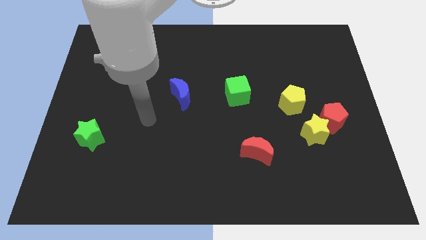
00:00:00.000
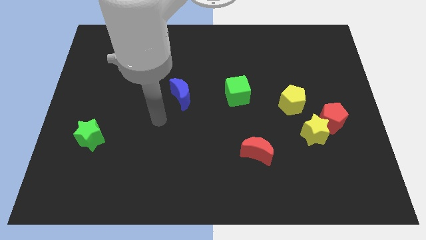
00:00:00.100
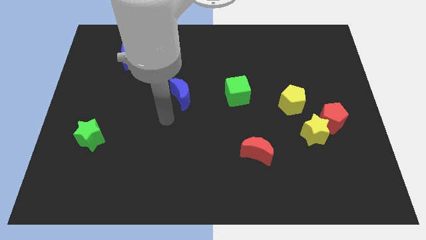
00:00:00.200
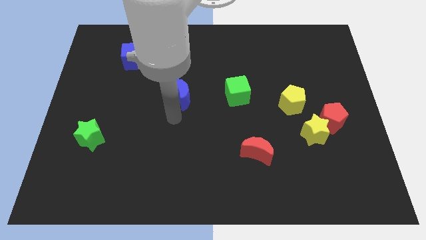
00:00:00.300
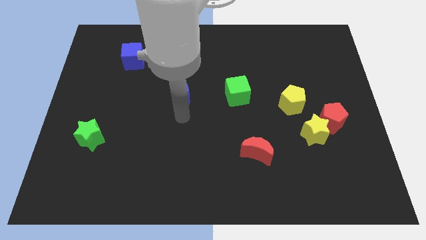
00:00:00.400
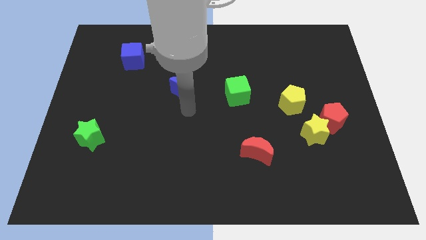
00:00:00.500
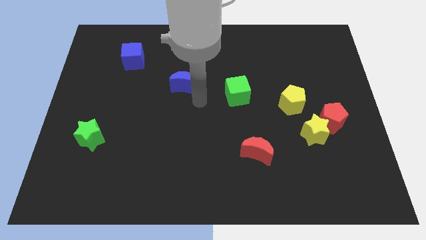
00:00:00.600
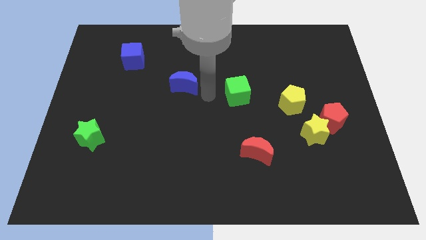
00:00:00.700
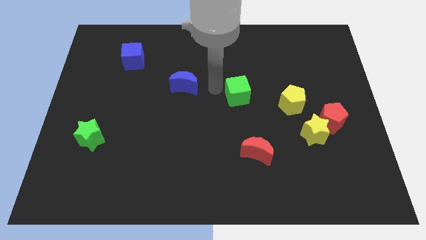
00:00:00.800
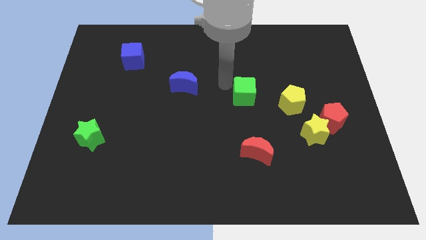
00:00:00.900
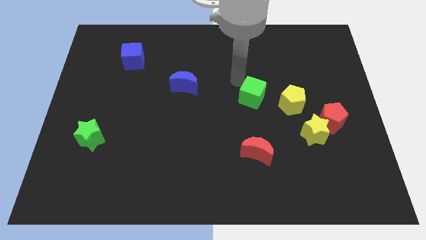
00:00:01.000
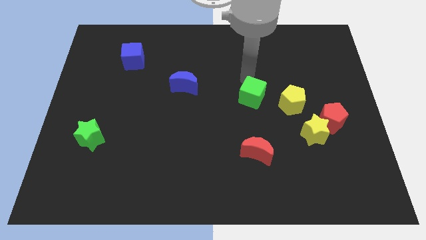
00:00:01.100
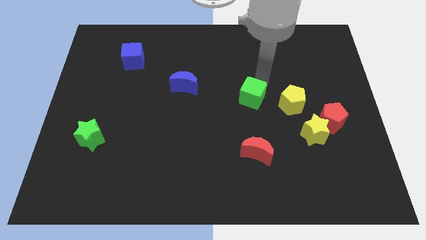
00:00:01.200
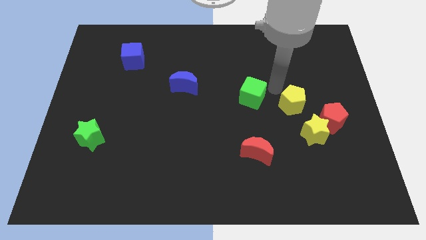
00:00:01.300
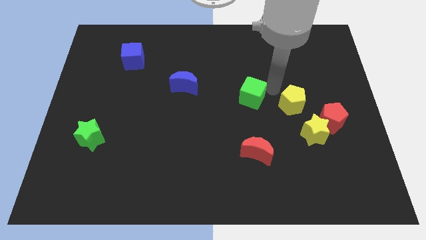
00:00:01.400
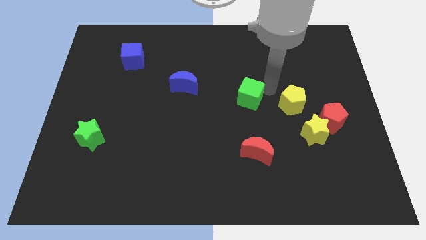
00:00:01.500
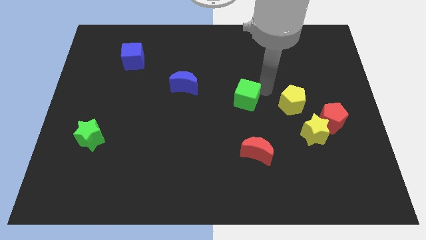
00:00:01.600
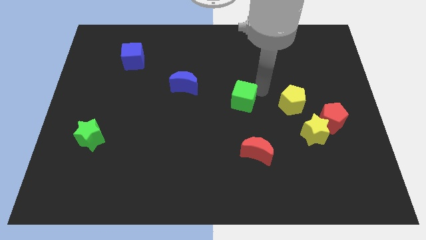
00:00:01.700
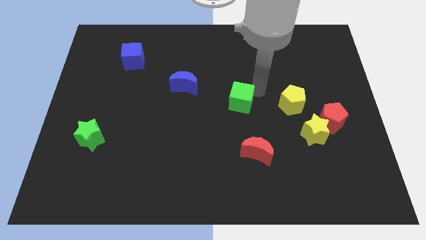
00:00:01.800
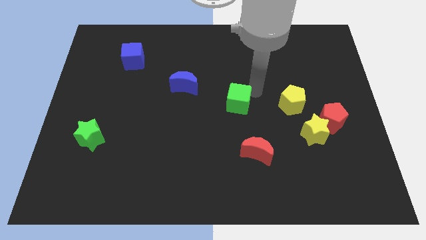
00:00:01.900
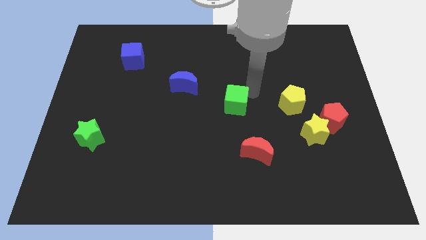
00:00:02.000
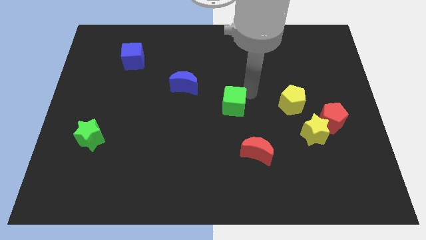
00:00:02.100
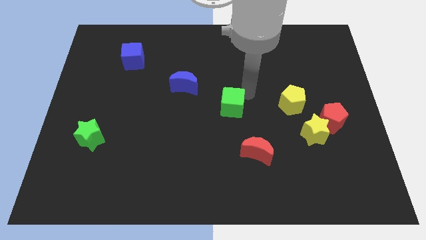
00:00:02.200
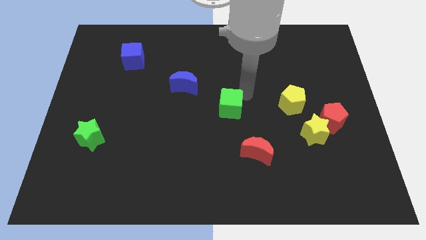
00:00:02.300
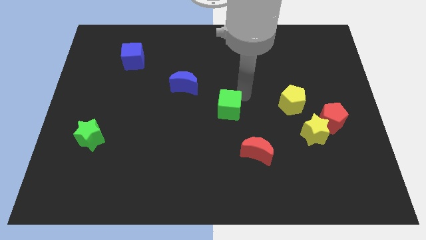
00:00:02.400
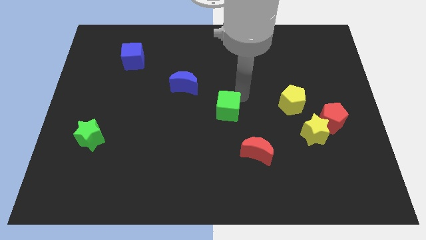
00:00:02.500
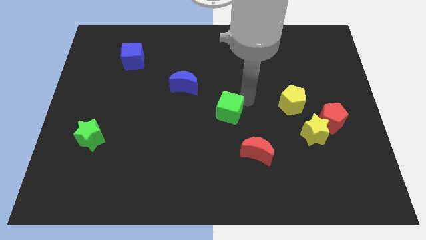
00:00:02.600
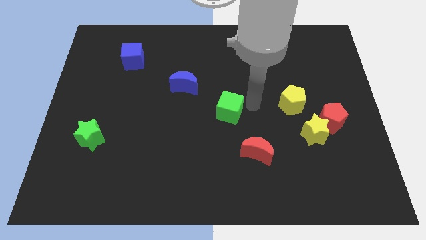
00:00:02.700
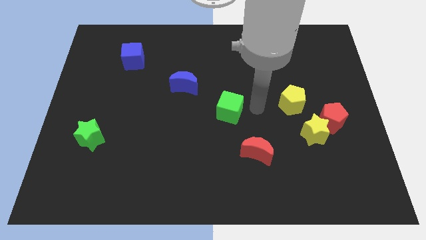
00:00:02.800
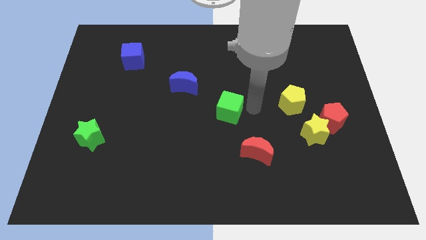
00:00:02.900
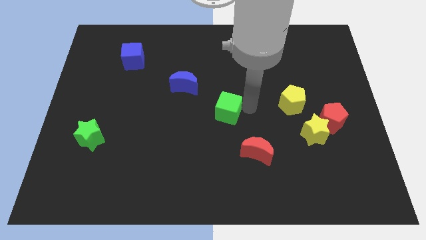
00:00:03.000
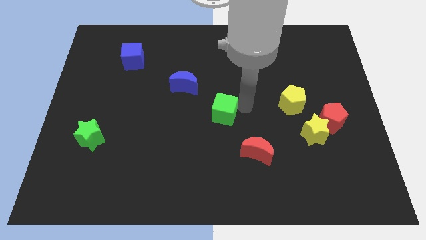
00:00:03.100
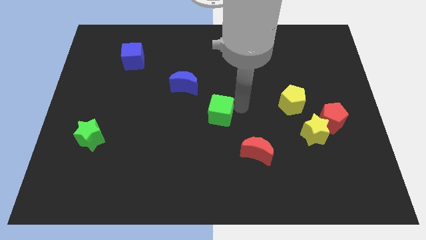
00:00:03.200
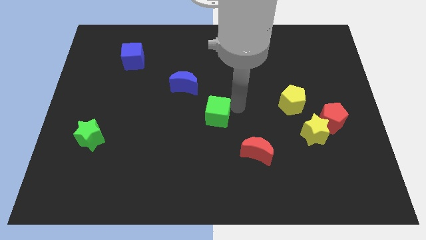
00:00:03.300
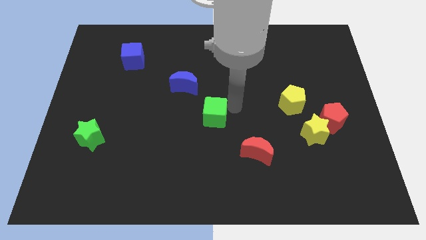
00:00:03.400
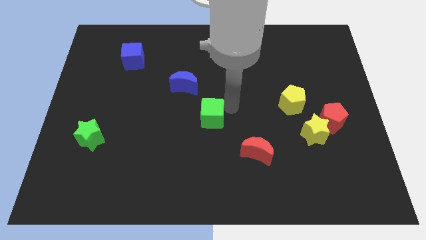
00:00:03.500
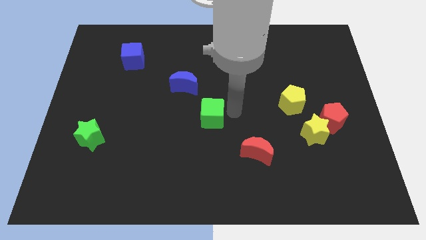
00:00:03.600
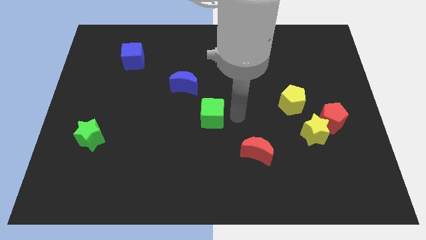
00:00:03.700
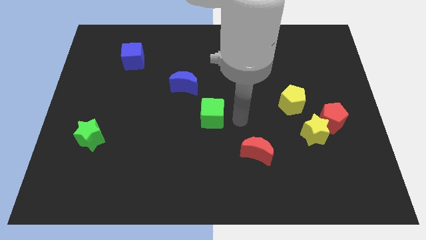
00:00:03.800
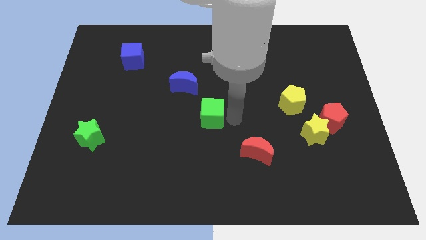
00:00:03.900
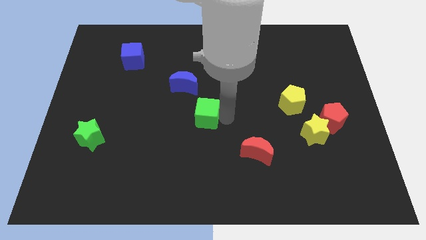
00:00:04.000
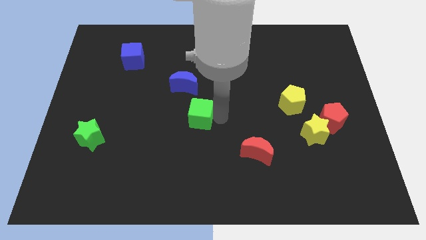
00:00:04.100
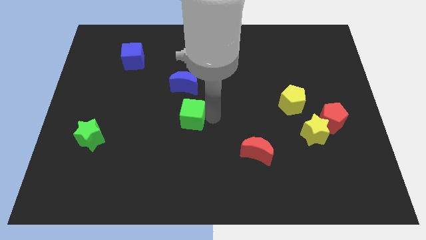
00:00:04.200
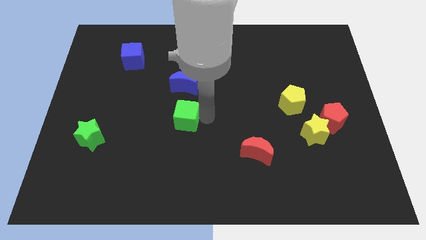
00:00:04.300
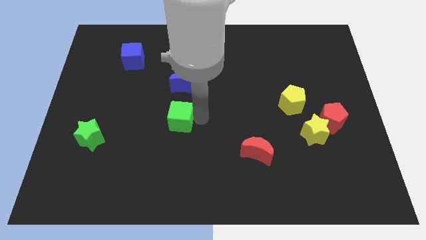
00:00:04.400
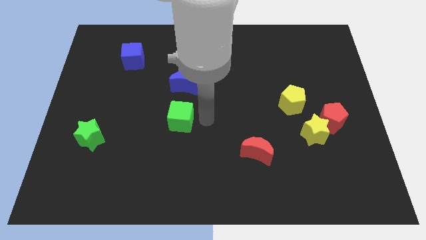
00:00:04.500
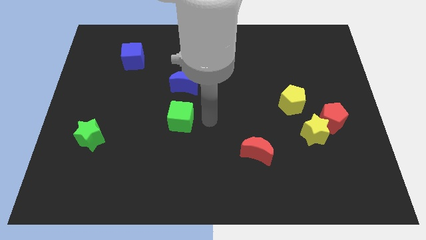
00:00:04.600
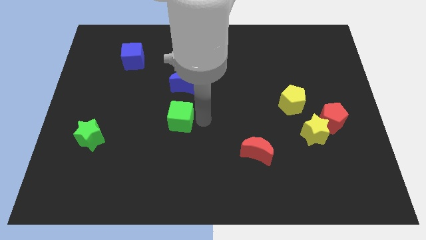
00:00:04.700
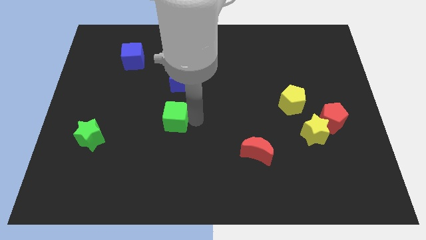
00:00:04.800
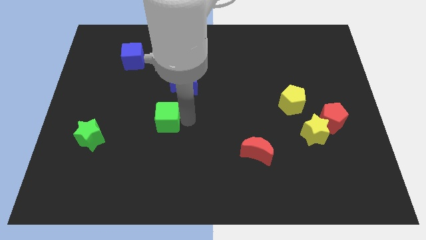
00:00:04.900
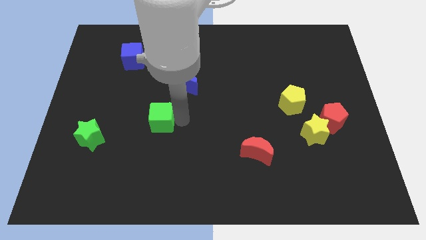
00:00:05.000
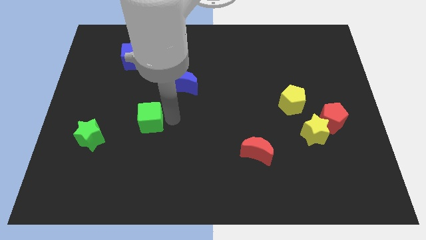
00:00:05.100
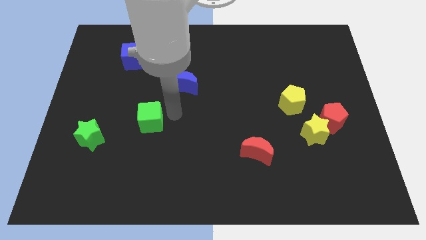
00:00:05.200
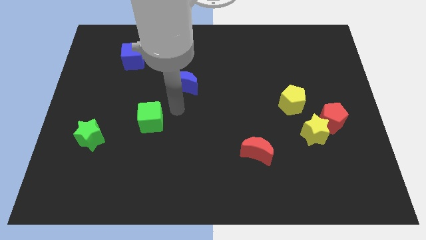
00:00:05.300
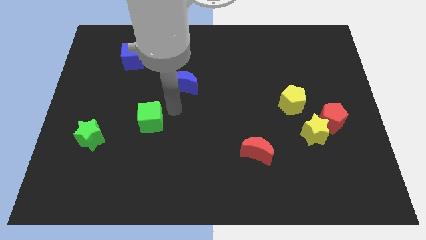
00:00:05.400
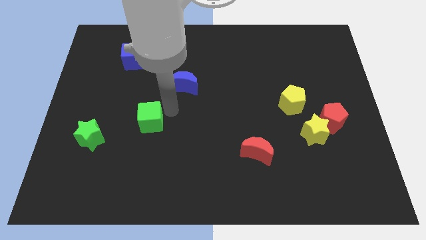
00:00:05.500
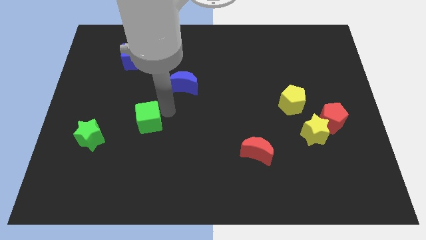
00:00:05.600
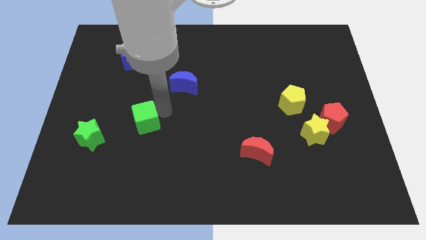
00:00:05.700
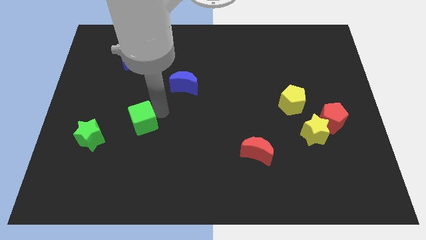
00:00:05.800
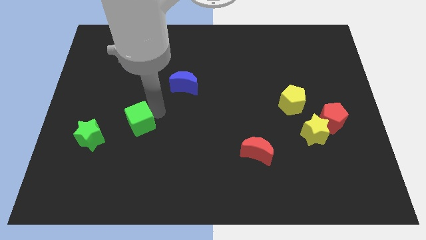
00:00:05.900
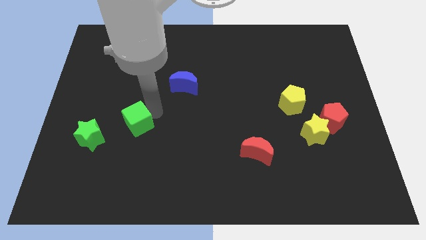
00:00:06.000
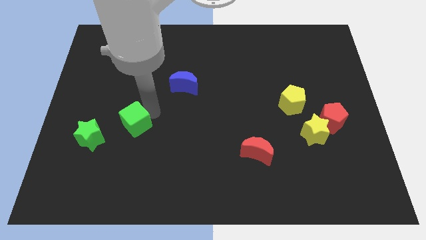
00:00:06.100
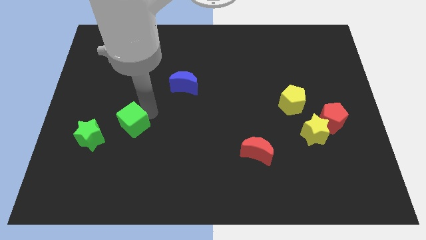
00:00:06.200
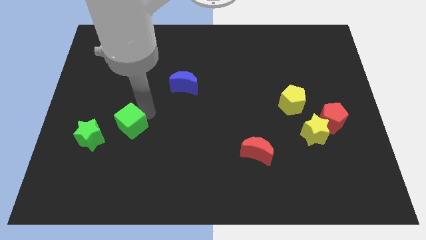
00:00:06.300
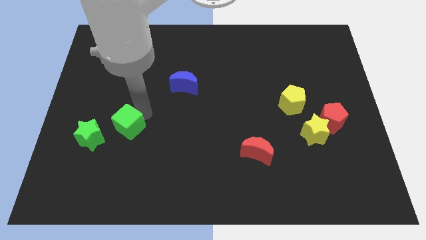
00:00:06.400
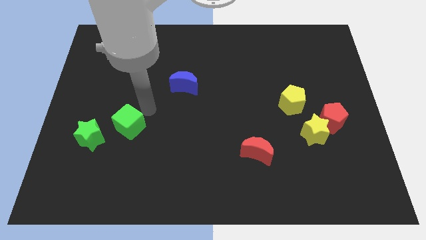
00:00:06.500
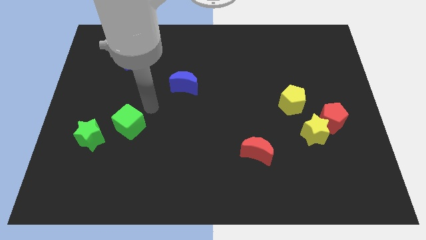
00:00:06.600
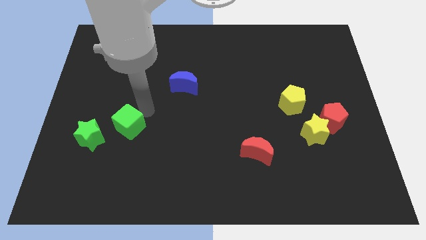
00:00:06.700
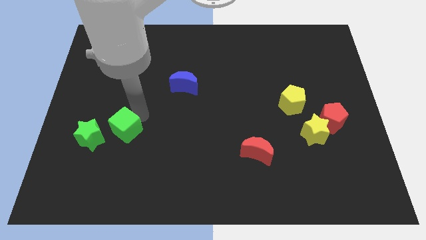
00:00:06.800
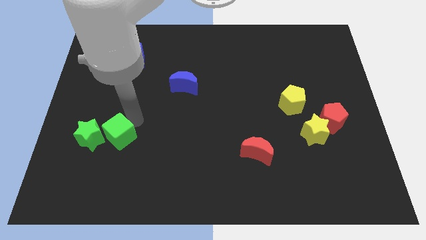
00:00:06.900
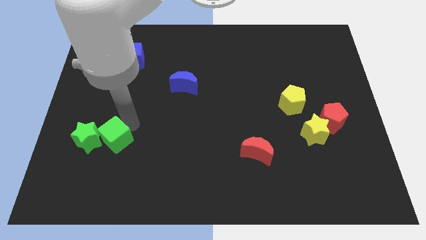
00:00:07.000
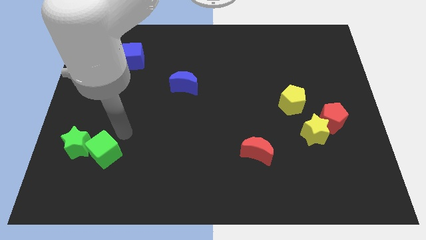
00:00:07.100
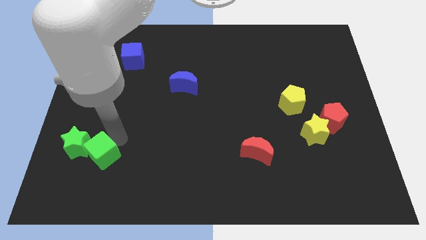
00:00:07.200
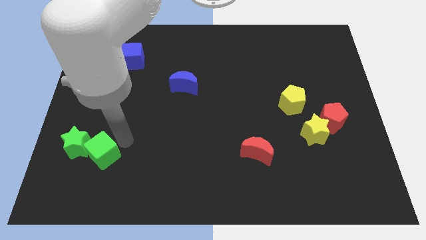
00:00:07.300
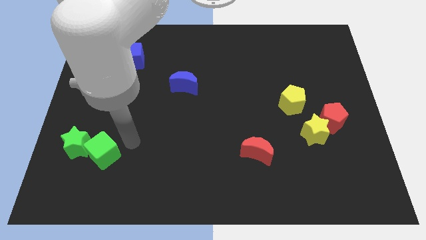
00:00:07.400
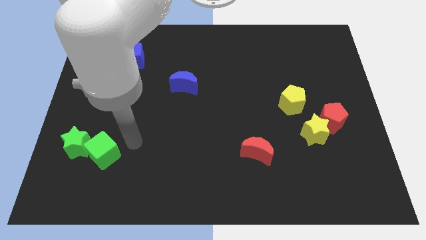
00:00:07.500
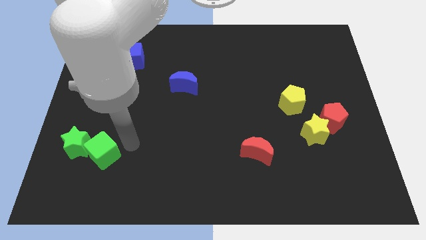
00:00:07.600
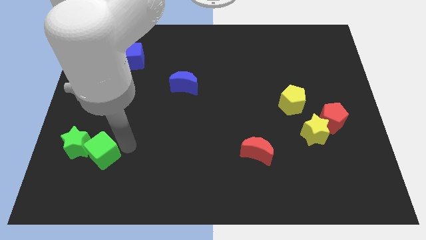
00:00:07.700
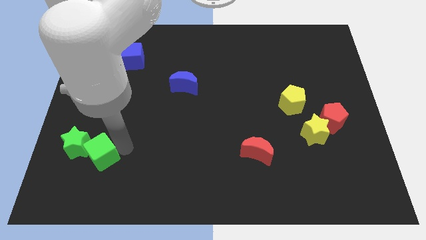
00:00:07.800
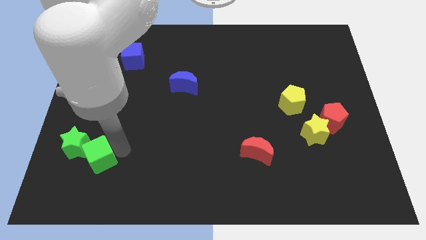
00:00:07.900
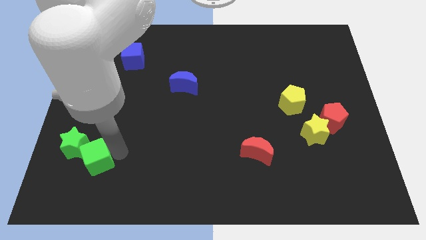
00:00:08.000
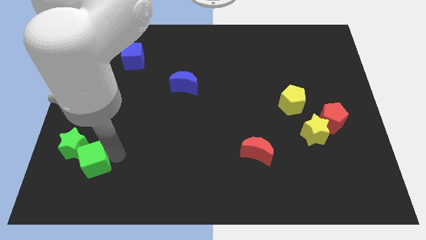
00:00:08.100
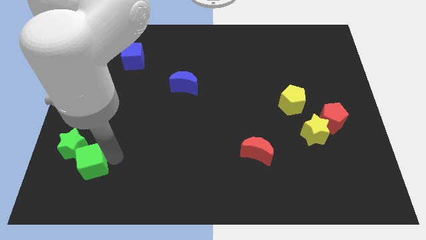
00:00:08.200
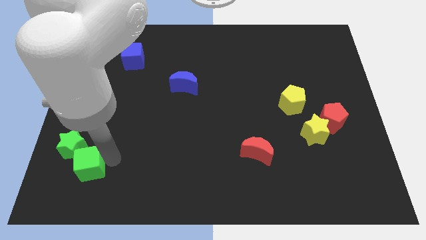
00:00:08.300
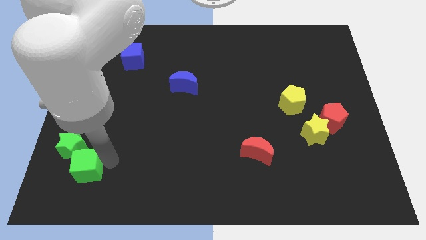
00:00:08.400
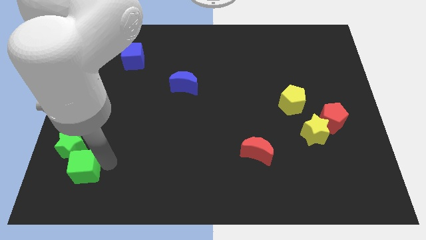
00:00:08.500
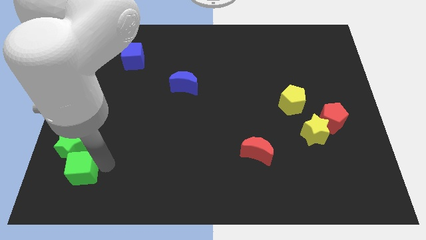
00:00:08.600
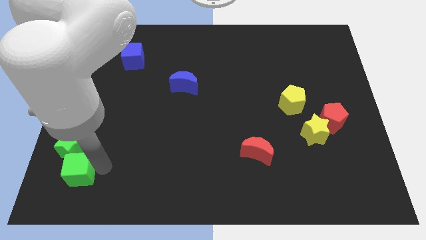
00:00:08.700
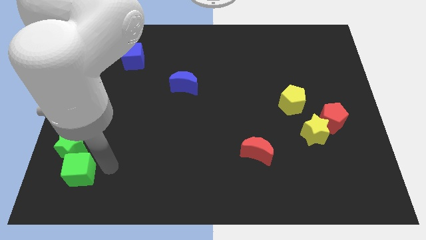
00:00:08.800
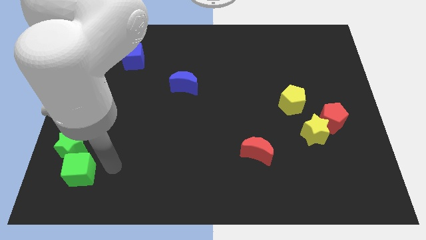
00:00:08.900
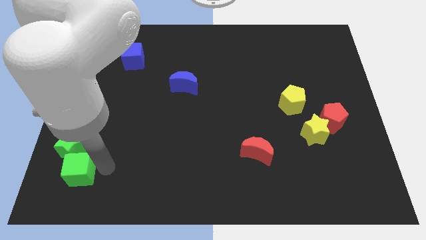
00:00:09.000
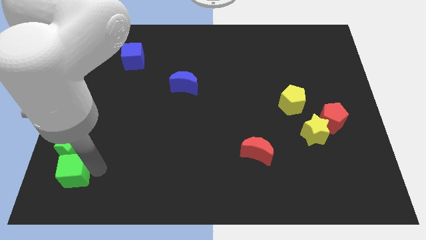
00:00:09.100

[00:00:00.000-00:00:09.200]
push the green cube to the bottom left corner
